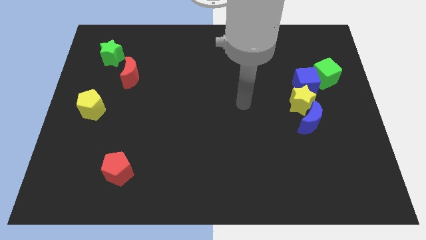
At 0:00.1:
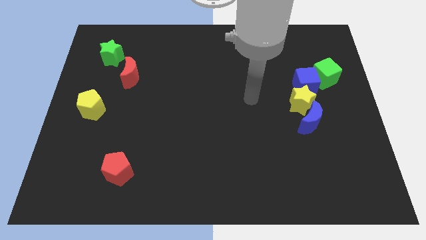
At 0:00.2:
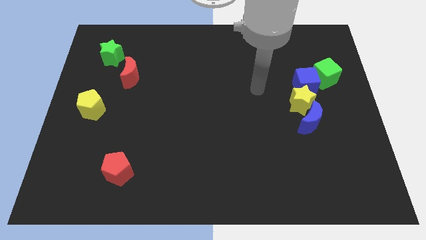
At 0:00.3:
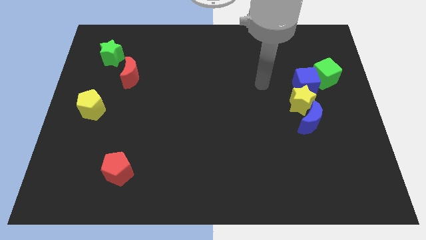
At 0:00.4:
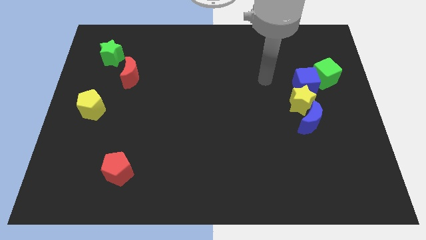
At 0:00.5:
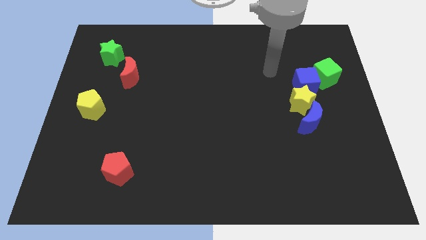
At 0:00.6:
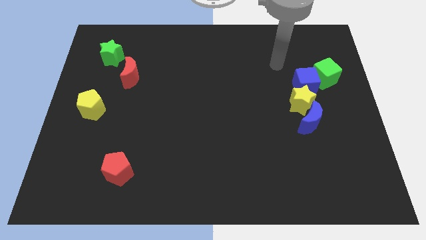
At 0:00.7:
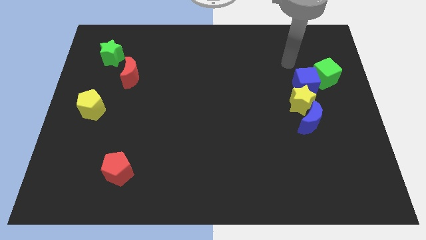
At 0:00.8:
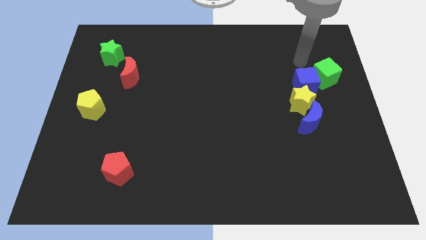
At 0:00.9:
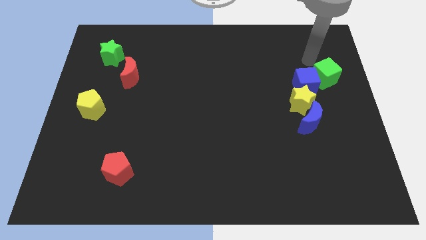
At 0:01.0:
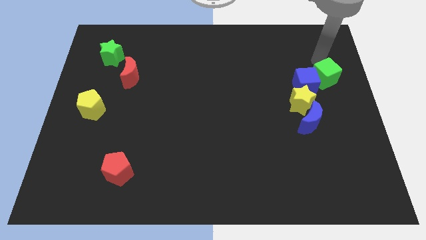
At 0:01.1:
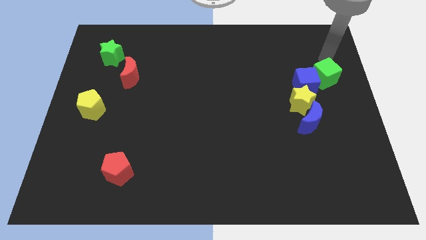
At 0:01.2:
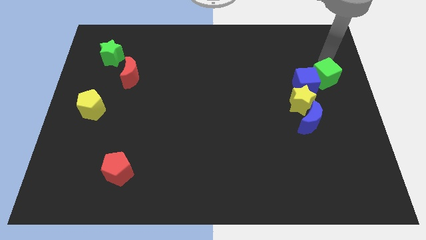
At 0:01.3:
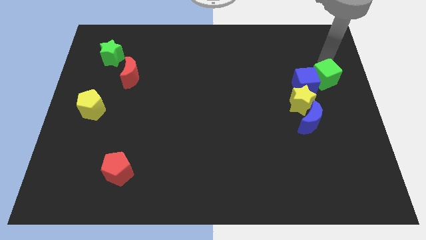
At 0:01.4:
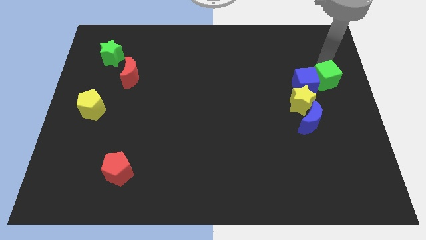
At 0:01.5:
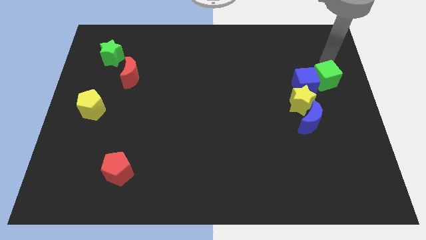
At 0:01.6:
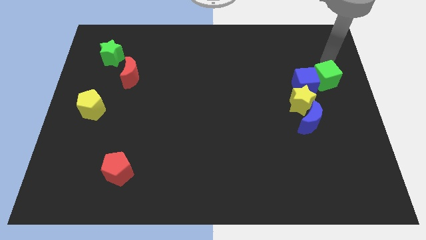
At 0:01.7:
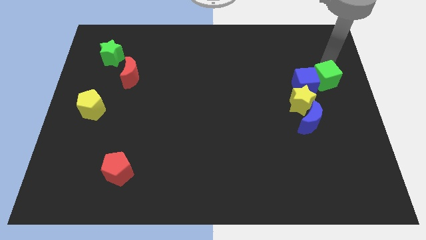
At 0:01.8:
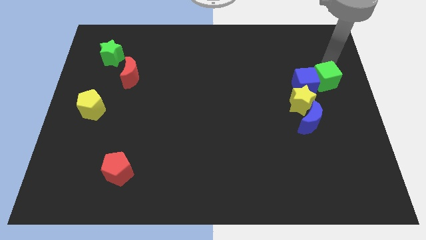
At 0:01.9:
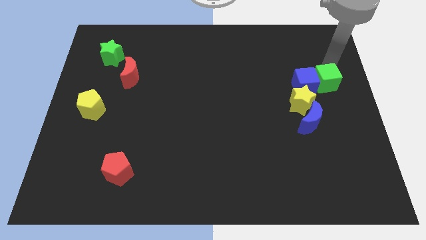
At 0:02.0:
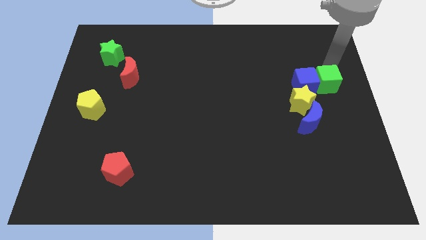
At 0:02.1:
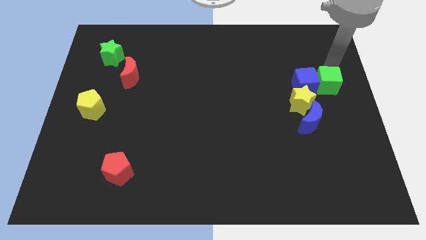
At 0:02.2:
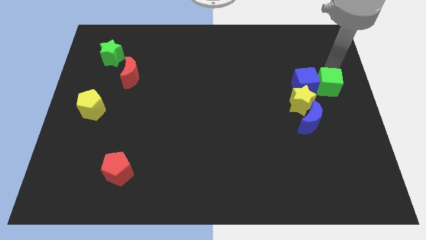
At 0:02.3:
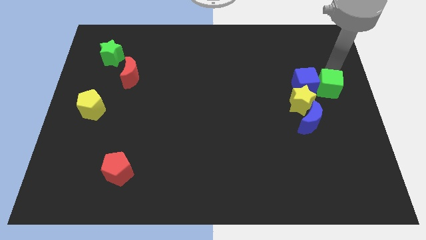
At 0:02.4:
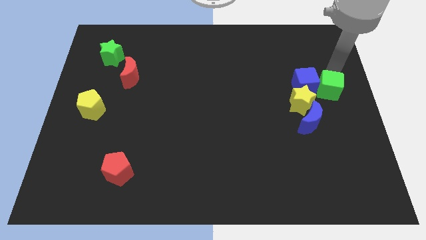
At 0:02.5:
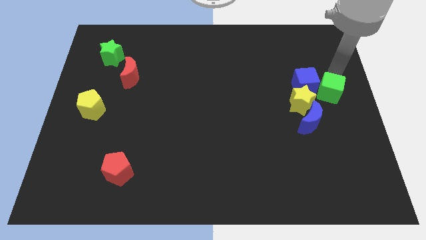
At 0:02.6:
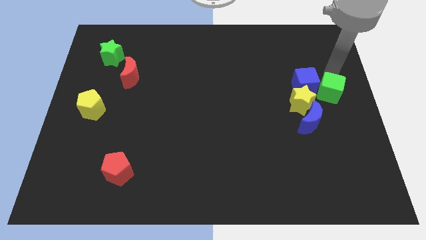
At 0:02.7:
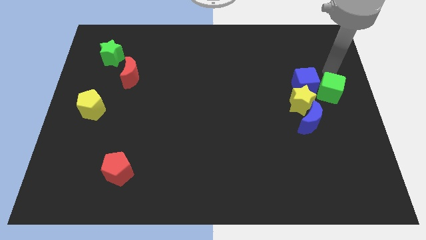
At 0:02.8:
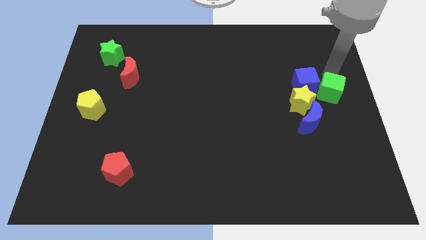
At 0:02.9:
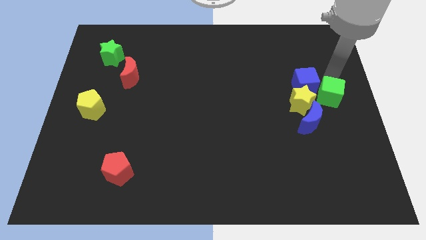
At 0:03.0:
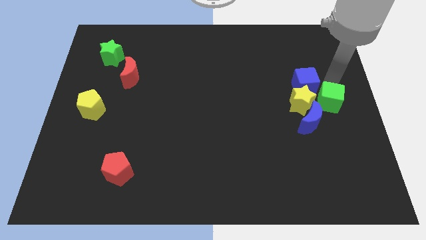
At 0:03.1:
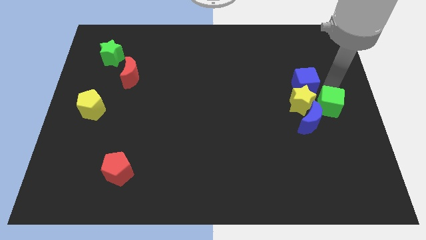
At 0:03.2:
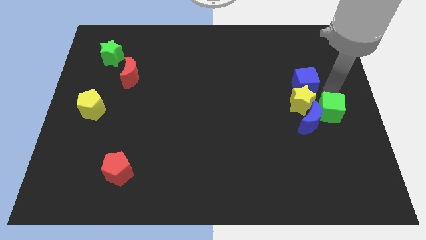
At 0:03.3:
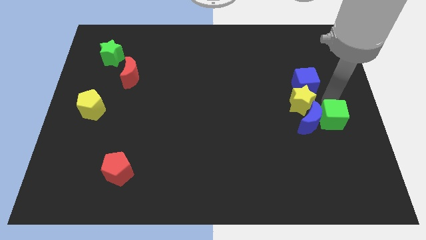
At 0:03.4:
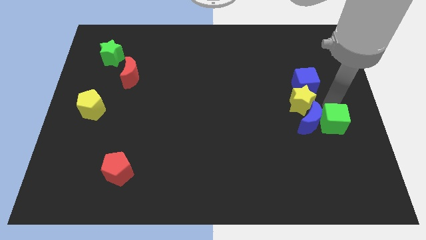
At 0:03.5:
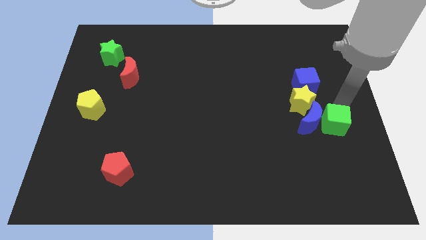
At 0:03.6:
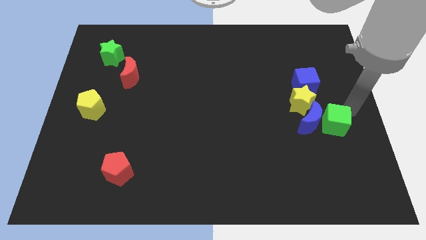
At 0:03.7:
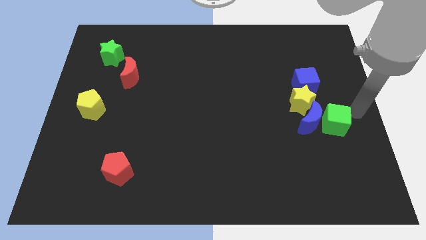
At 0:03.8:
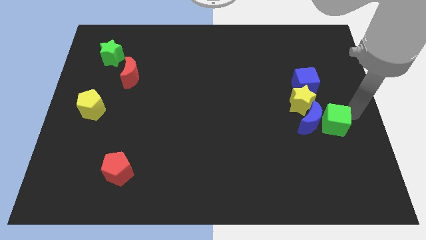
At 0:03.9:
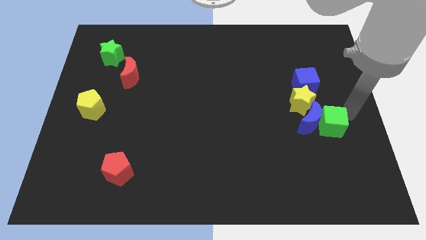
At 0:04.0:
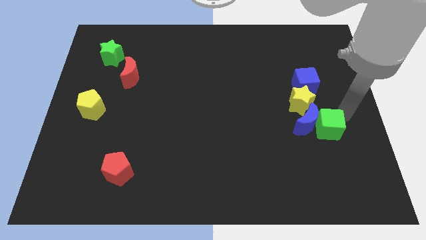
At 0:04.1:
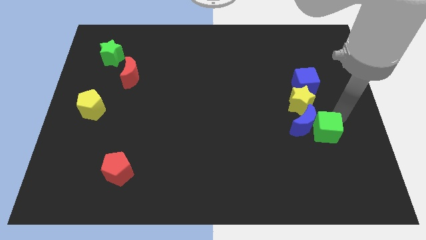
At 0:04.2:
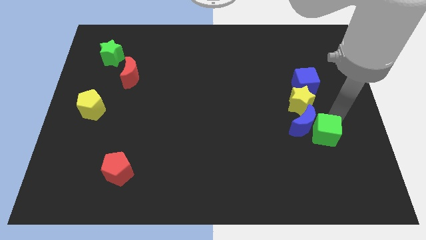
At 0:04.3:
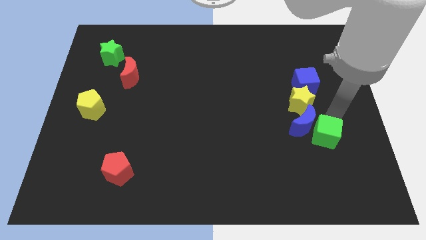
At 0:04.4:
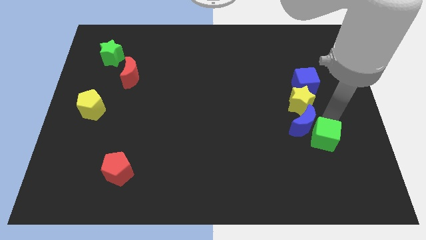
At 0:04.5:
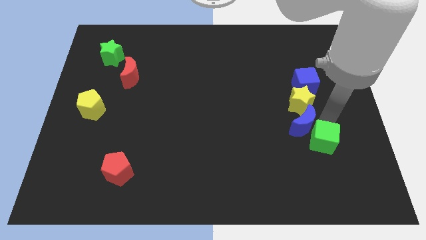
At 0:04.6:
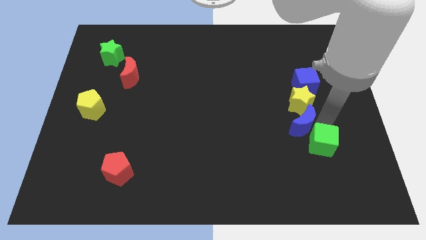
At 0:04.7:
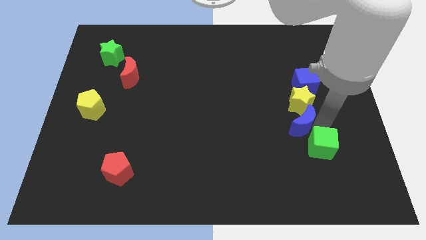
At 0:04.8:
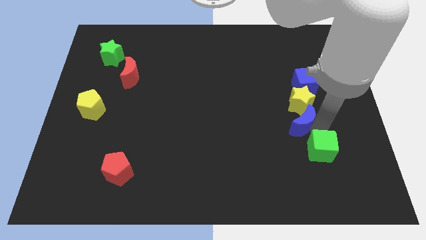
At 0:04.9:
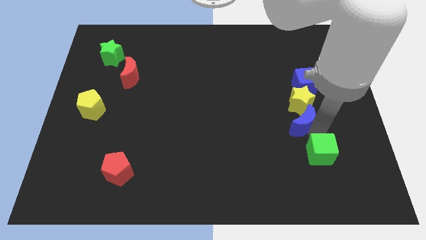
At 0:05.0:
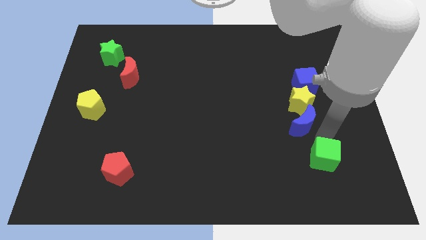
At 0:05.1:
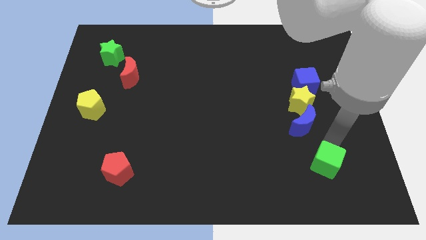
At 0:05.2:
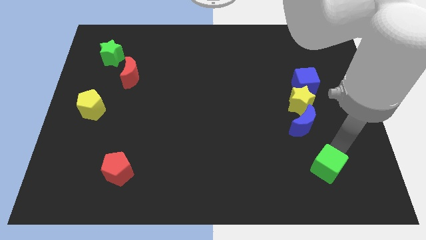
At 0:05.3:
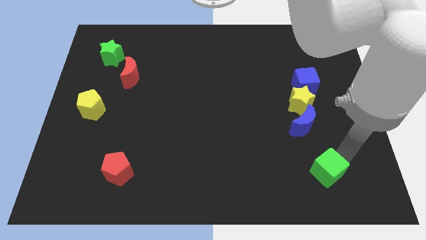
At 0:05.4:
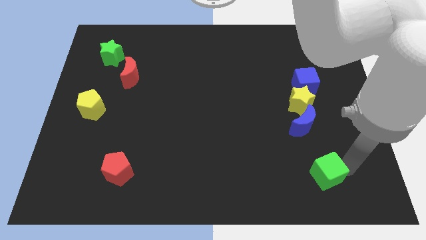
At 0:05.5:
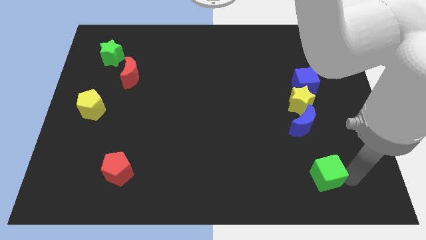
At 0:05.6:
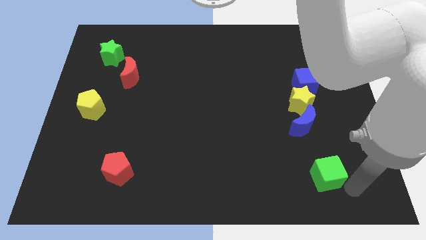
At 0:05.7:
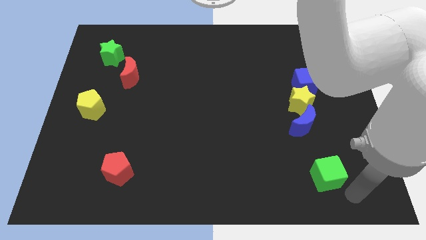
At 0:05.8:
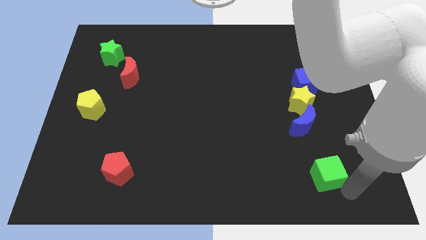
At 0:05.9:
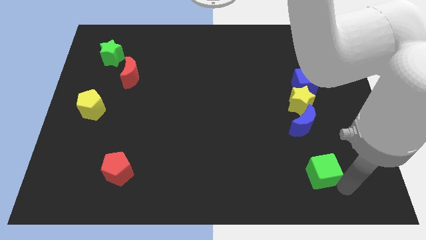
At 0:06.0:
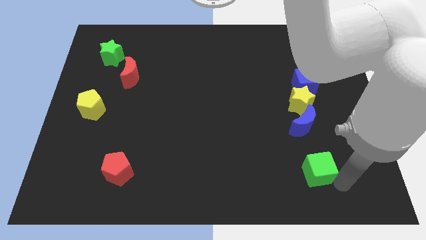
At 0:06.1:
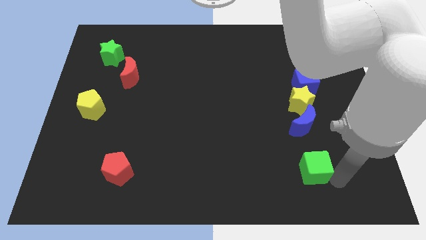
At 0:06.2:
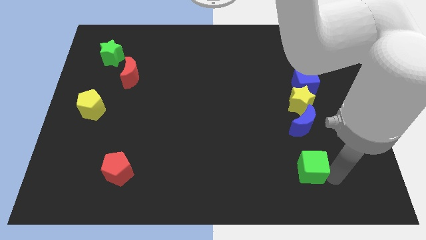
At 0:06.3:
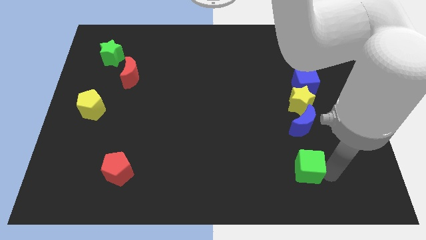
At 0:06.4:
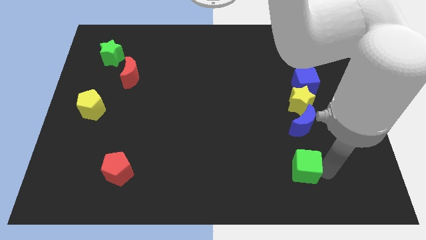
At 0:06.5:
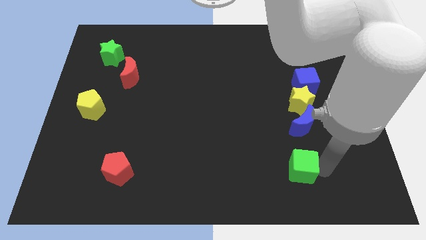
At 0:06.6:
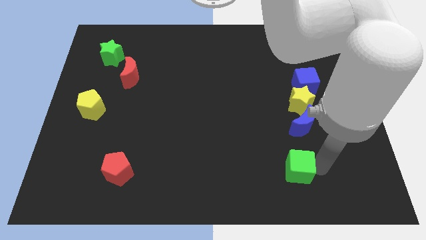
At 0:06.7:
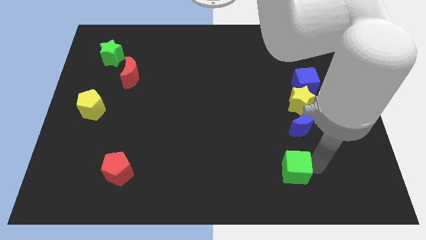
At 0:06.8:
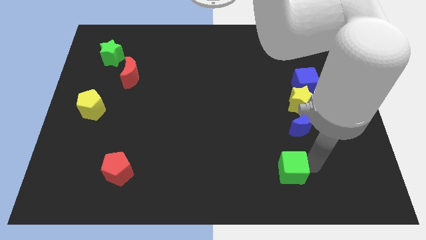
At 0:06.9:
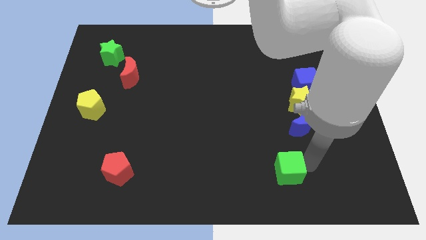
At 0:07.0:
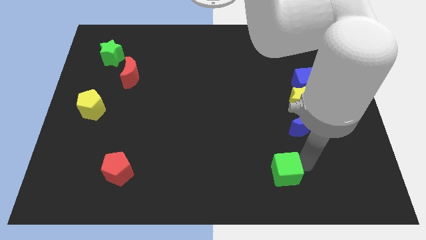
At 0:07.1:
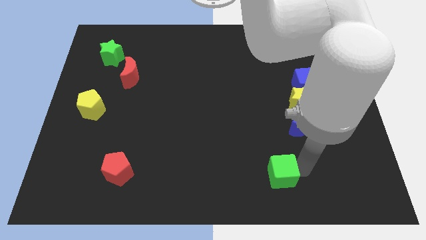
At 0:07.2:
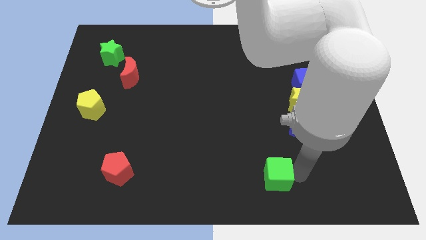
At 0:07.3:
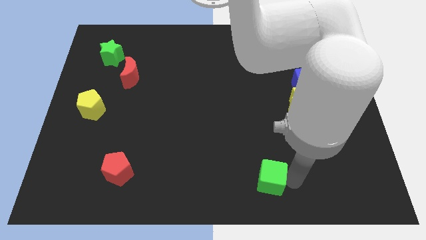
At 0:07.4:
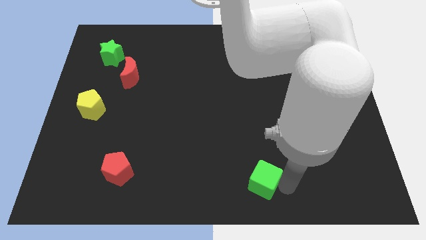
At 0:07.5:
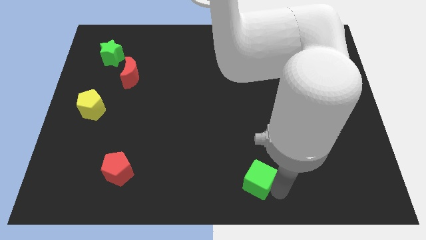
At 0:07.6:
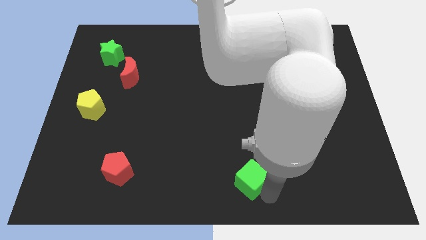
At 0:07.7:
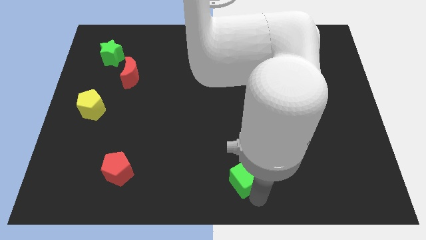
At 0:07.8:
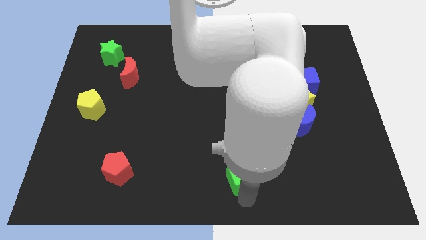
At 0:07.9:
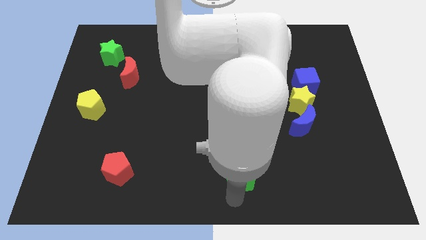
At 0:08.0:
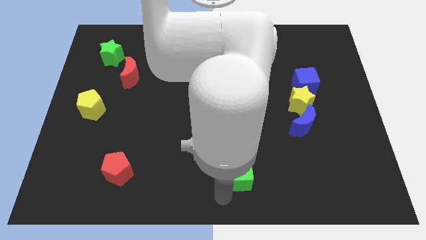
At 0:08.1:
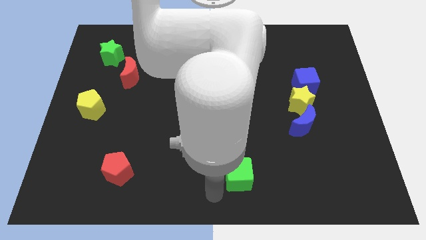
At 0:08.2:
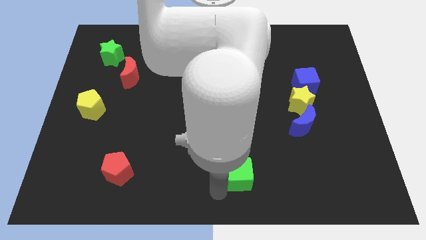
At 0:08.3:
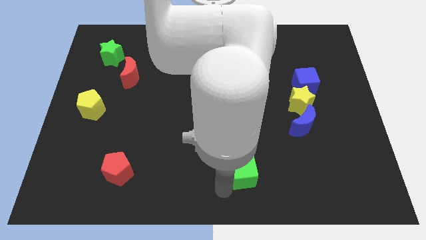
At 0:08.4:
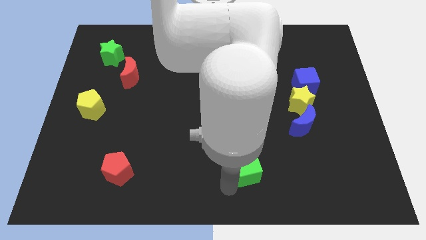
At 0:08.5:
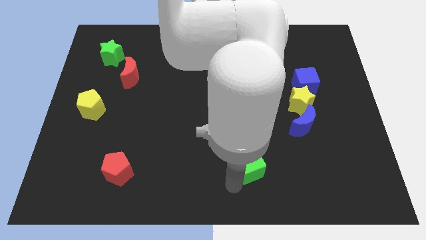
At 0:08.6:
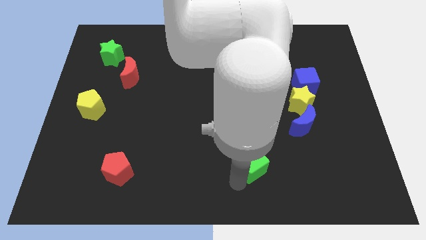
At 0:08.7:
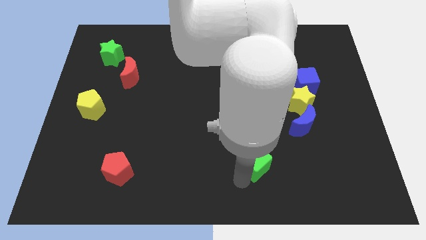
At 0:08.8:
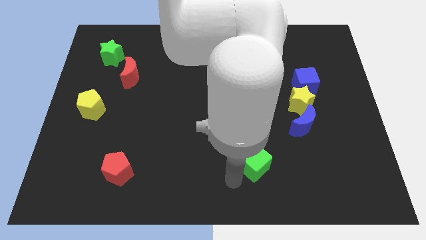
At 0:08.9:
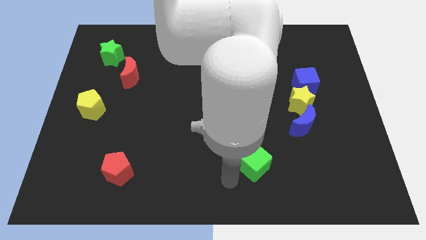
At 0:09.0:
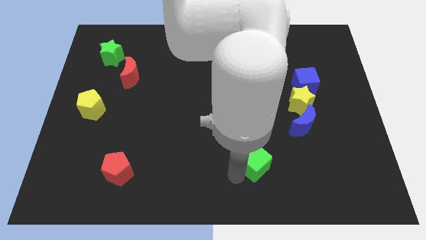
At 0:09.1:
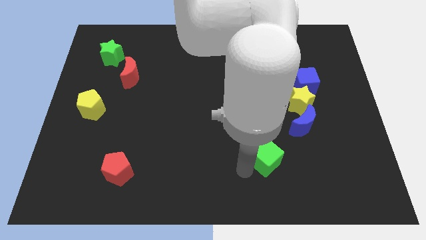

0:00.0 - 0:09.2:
put the green cube diagonally down and to the left of the blue moon
